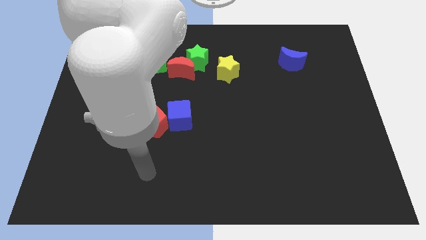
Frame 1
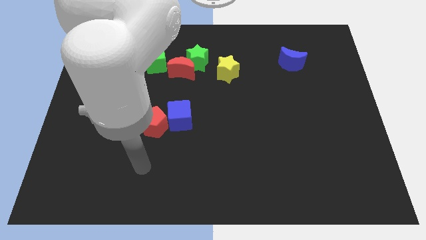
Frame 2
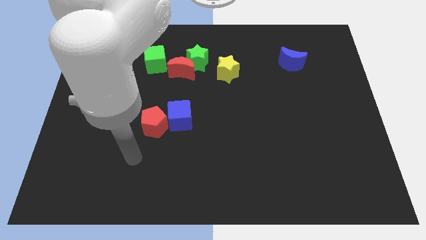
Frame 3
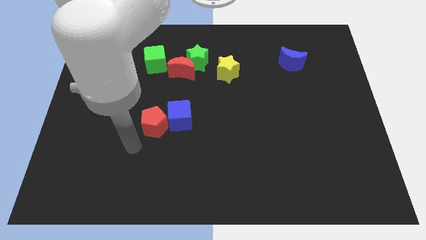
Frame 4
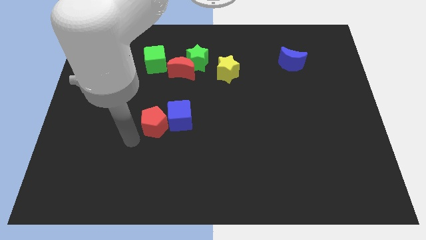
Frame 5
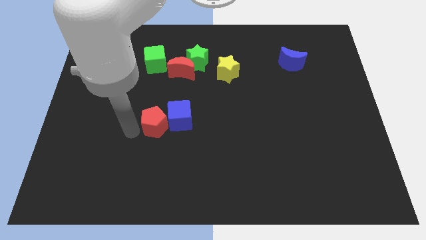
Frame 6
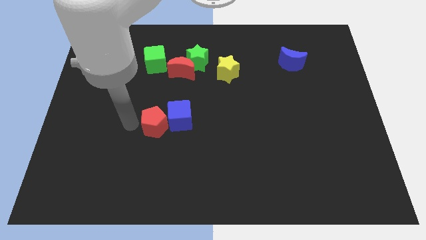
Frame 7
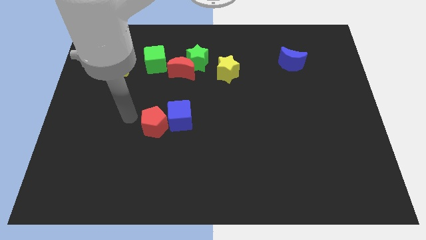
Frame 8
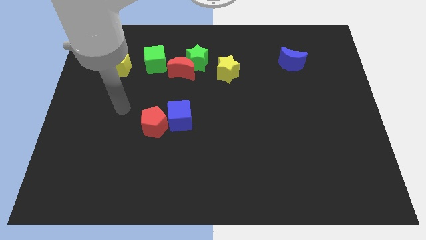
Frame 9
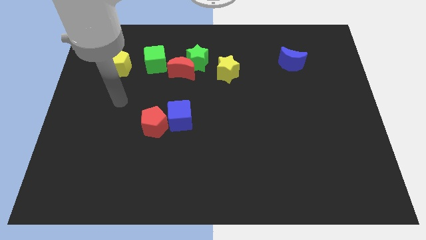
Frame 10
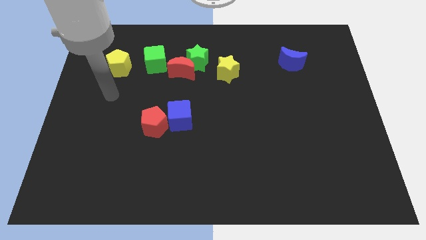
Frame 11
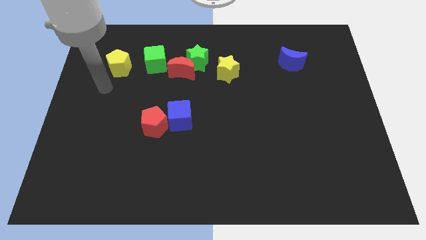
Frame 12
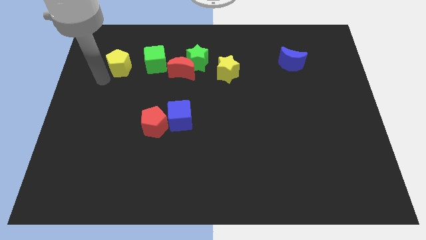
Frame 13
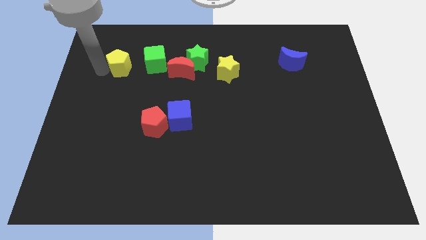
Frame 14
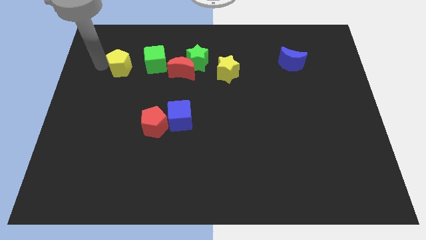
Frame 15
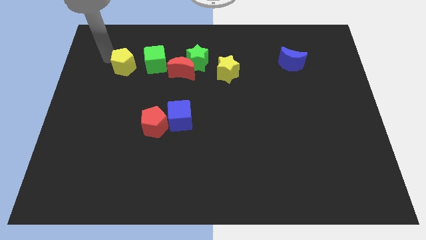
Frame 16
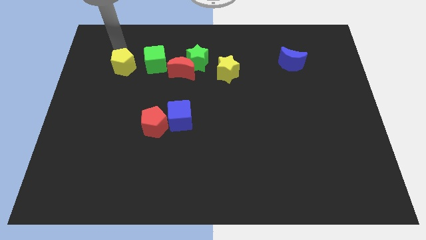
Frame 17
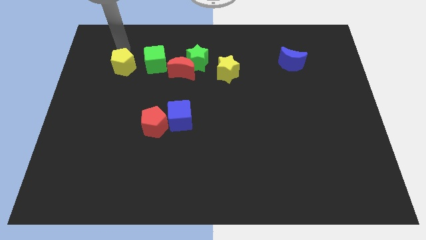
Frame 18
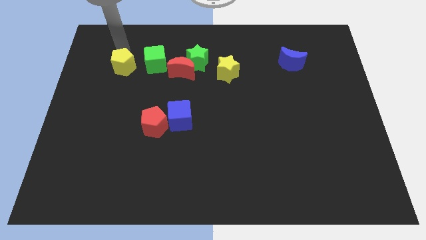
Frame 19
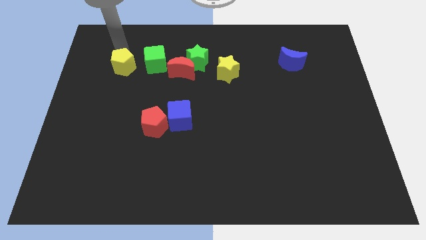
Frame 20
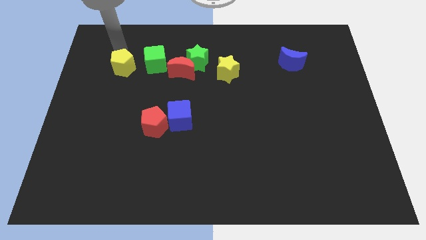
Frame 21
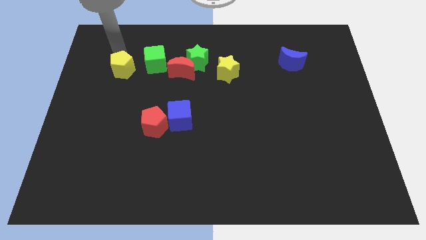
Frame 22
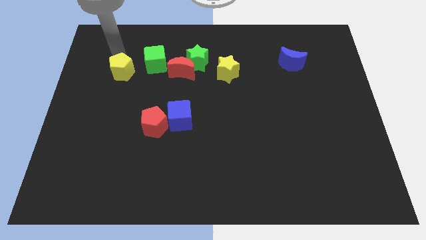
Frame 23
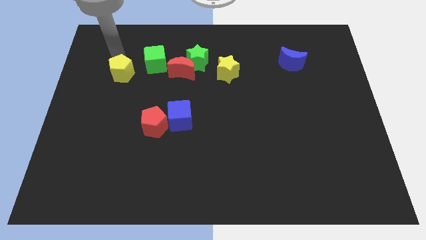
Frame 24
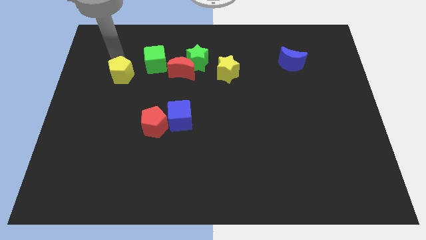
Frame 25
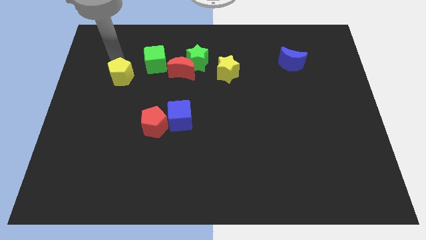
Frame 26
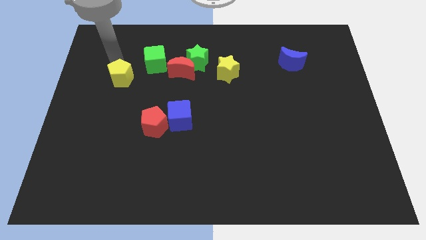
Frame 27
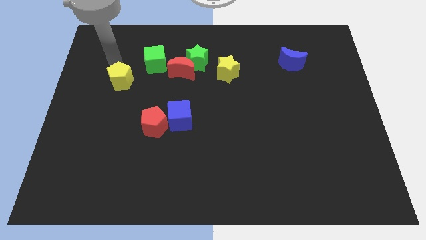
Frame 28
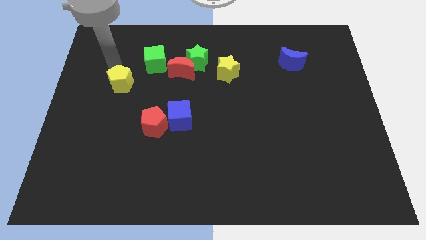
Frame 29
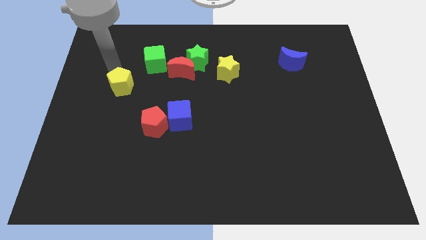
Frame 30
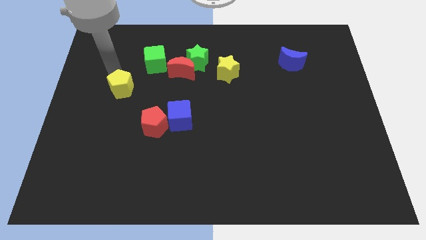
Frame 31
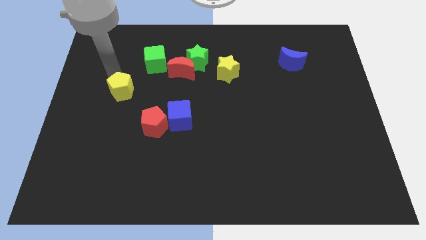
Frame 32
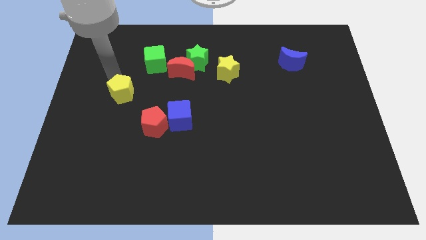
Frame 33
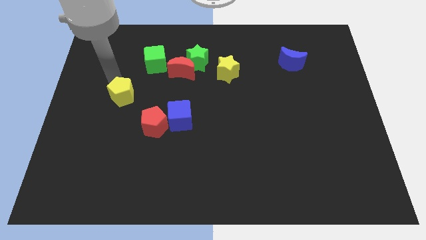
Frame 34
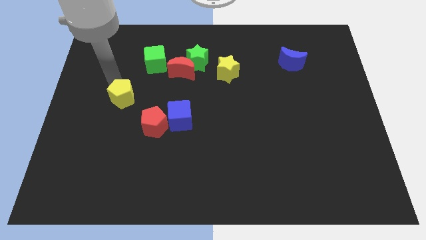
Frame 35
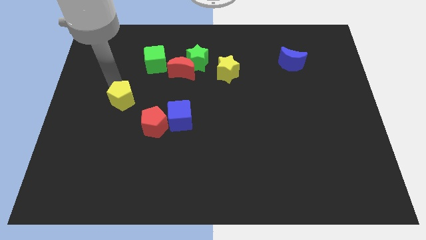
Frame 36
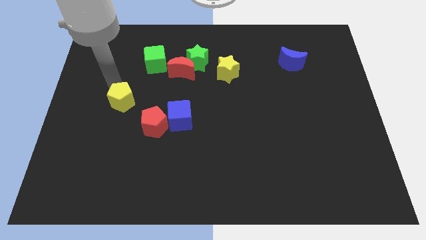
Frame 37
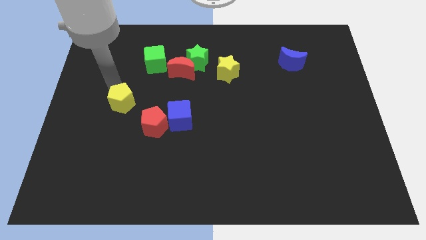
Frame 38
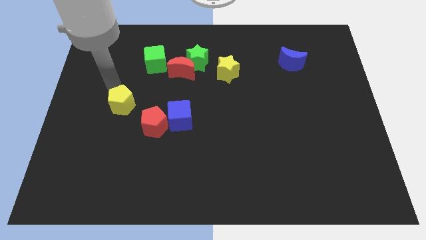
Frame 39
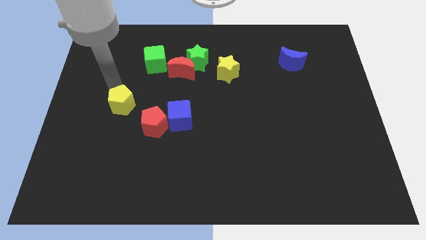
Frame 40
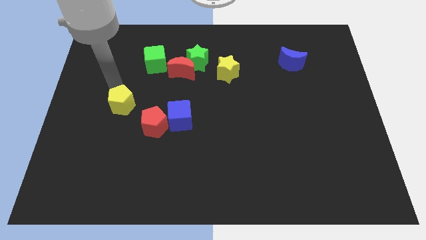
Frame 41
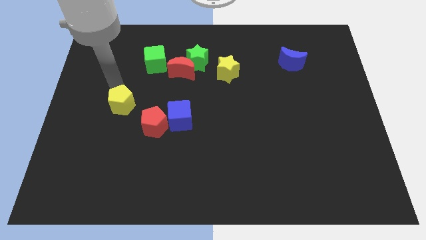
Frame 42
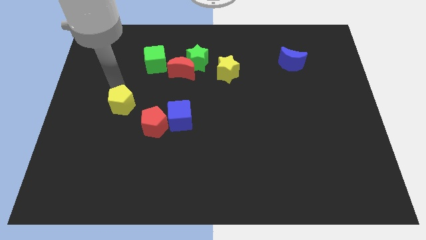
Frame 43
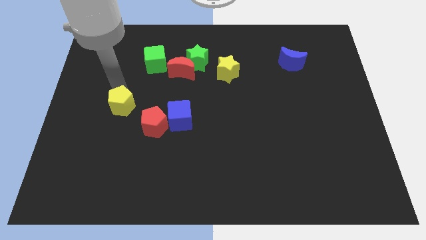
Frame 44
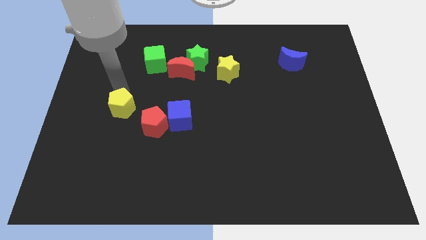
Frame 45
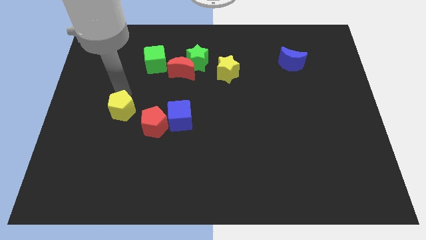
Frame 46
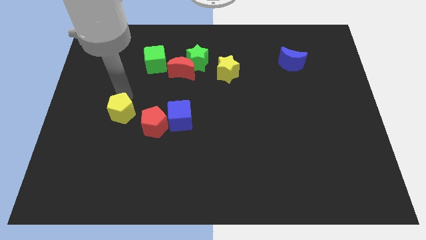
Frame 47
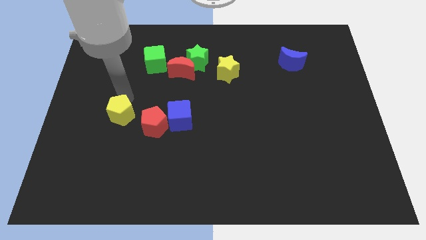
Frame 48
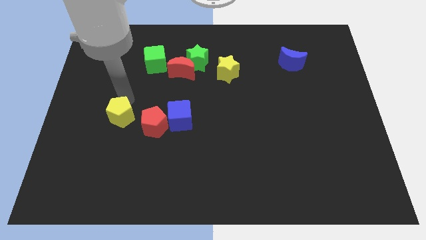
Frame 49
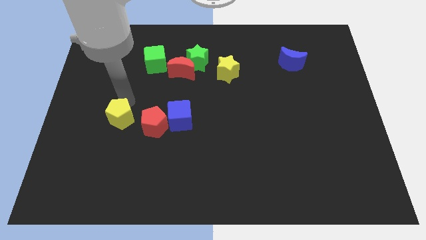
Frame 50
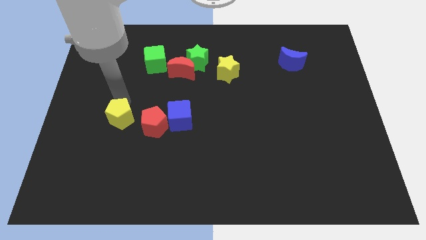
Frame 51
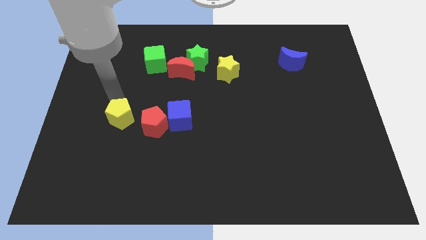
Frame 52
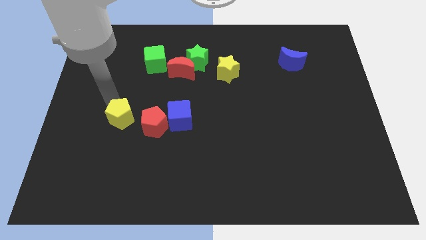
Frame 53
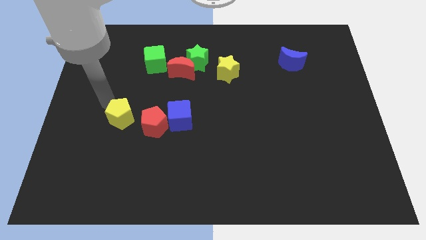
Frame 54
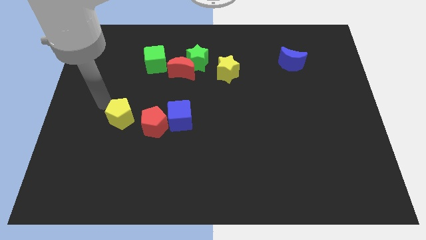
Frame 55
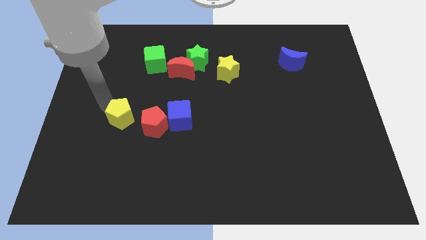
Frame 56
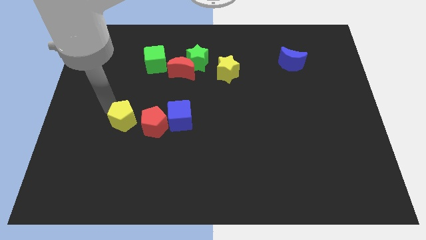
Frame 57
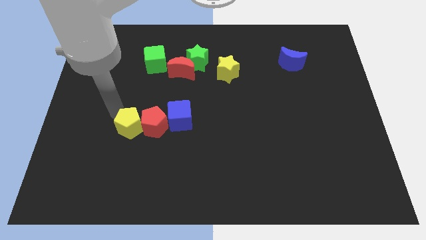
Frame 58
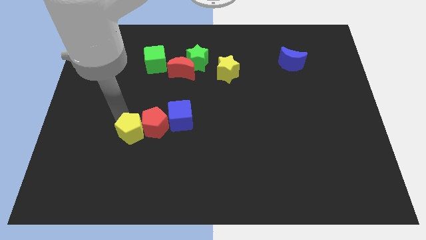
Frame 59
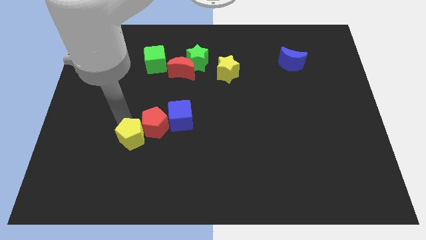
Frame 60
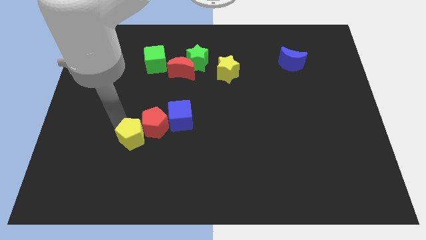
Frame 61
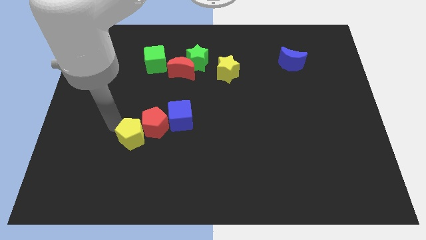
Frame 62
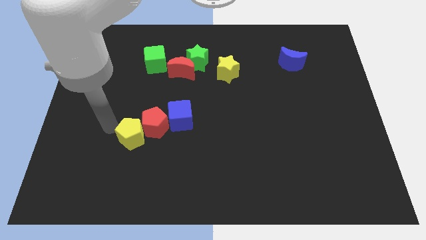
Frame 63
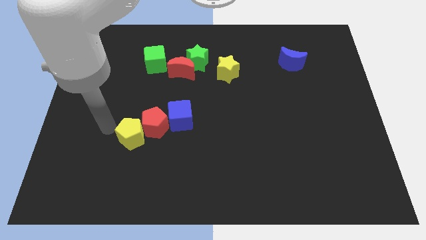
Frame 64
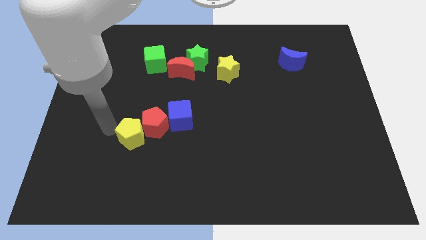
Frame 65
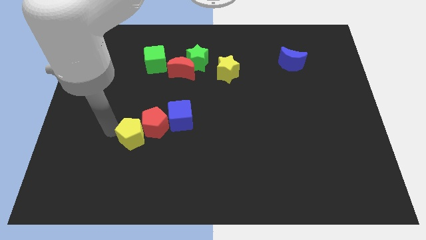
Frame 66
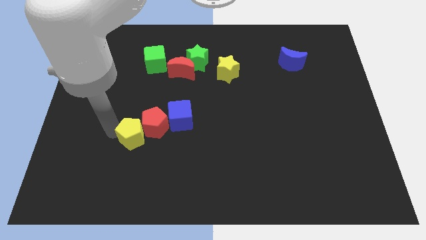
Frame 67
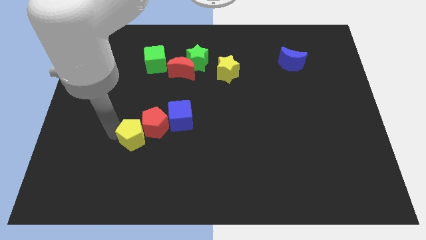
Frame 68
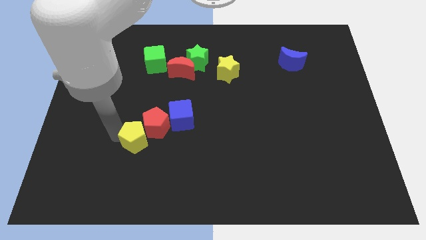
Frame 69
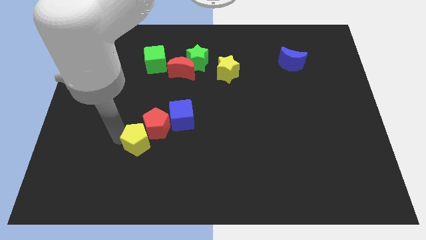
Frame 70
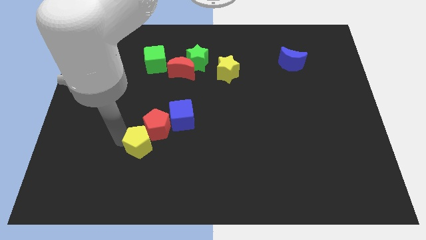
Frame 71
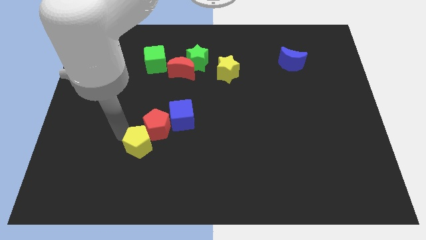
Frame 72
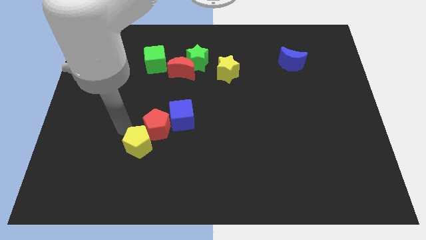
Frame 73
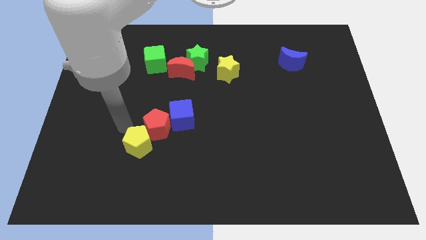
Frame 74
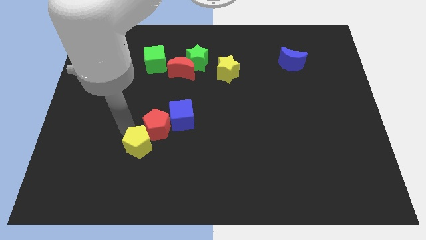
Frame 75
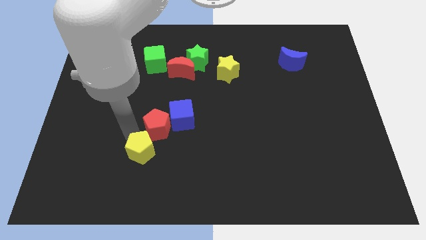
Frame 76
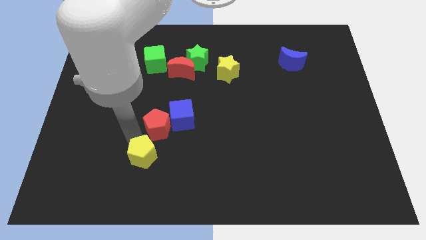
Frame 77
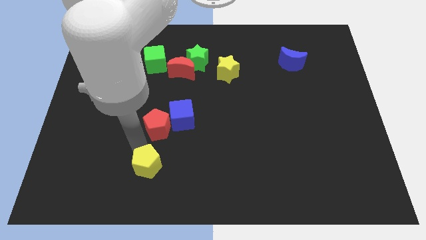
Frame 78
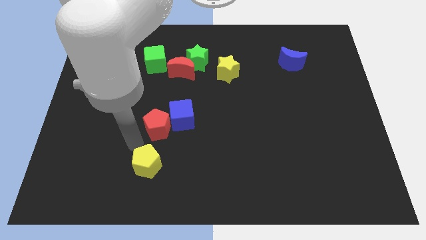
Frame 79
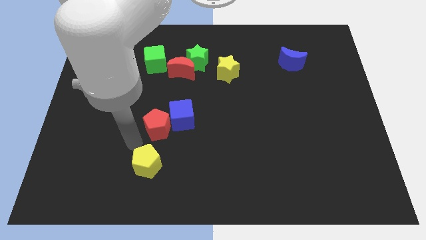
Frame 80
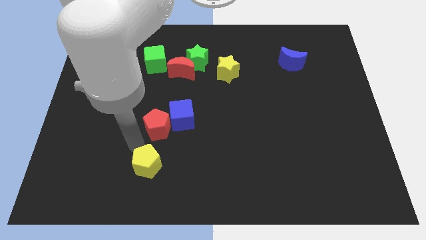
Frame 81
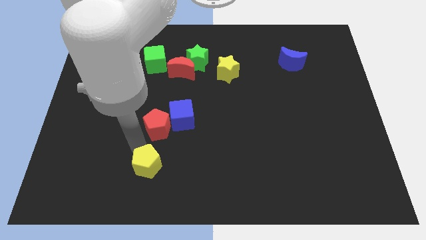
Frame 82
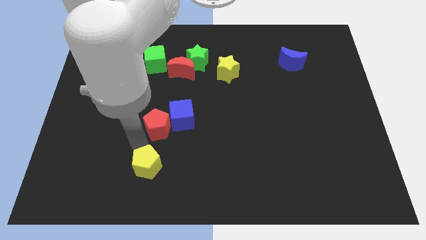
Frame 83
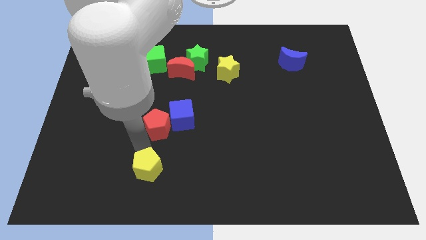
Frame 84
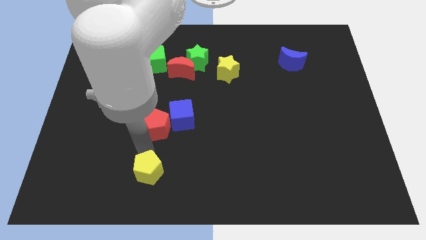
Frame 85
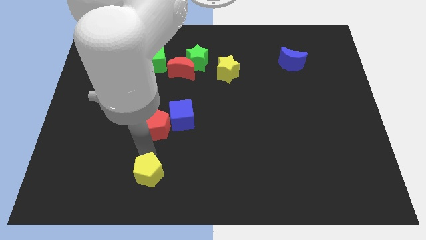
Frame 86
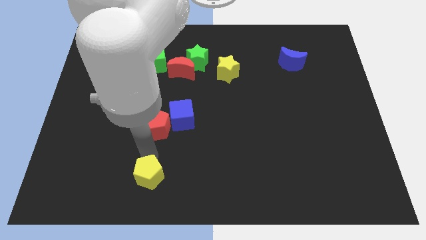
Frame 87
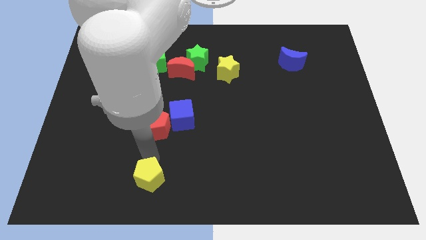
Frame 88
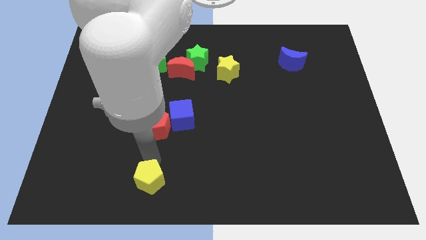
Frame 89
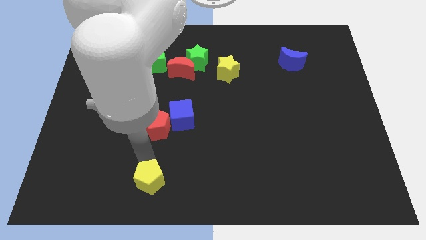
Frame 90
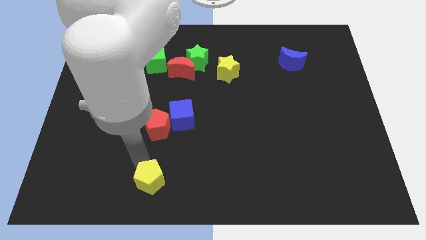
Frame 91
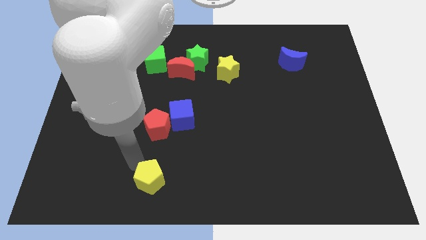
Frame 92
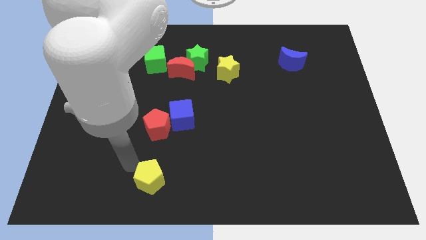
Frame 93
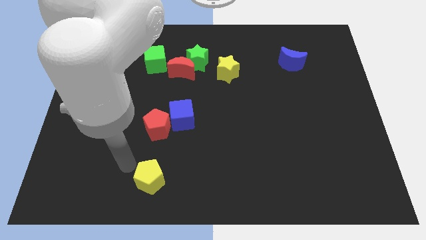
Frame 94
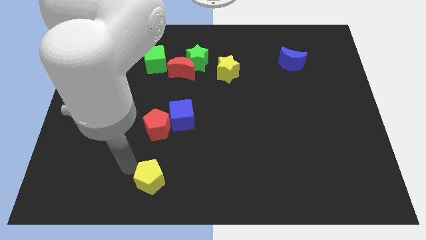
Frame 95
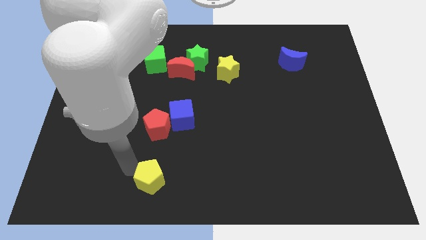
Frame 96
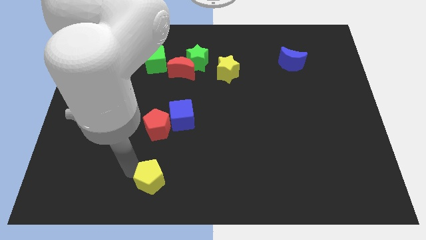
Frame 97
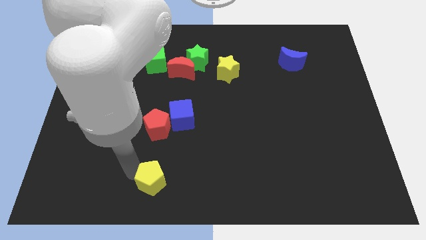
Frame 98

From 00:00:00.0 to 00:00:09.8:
put the yellow pentagon to the bottom side
